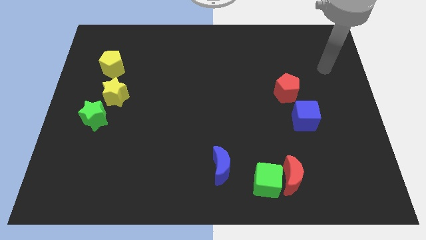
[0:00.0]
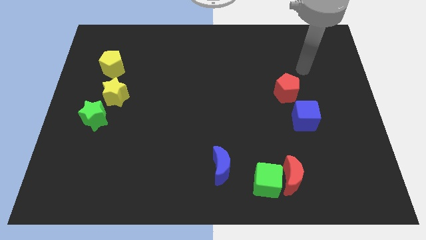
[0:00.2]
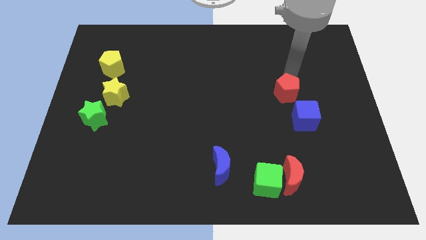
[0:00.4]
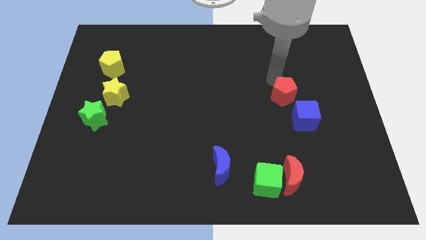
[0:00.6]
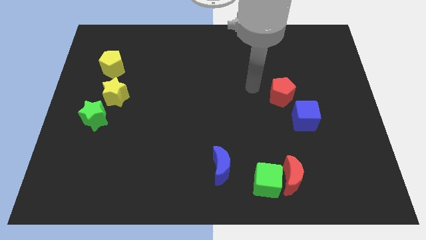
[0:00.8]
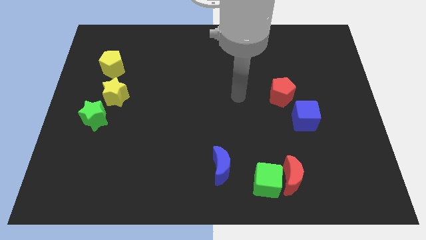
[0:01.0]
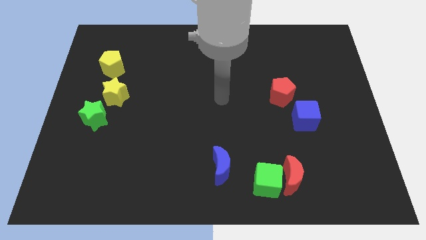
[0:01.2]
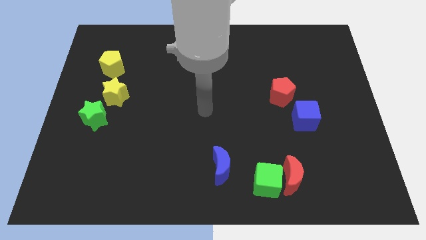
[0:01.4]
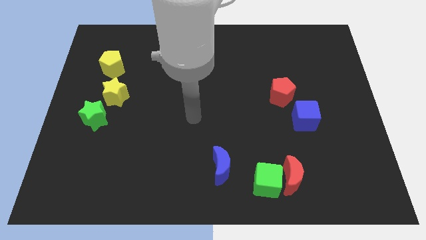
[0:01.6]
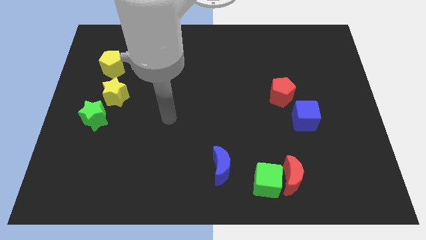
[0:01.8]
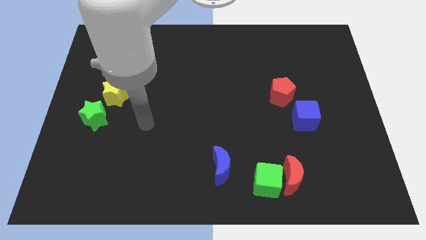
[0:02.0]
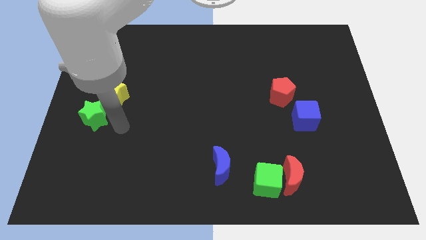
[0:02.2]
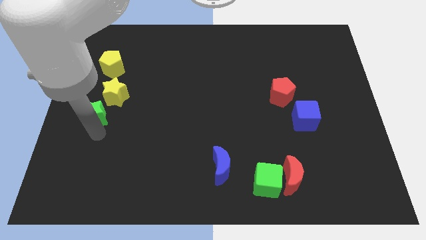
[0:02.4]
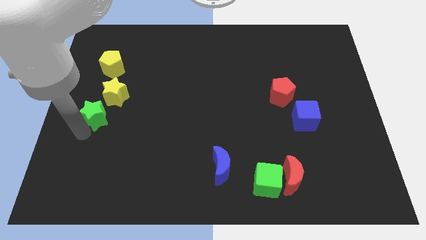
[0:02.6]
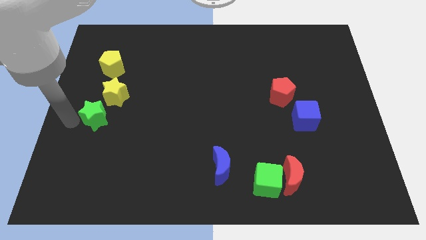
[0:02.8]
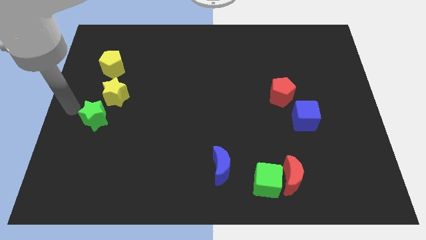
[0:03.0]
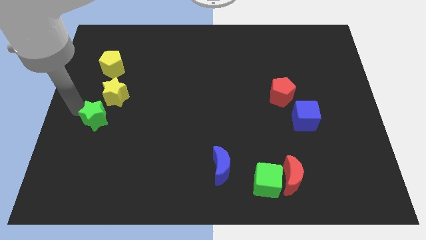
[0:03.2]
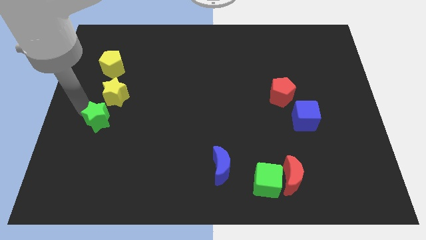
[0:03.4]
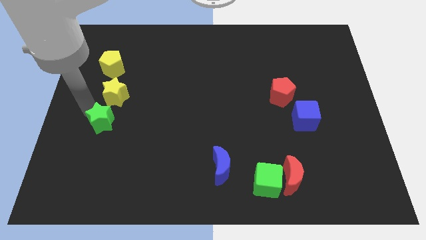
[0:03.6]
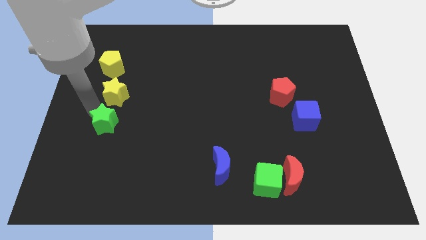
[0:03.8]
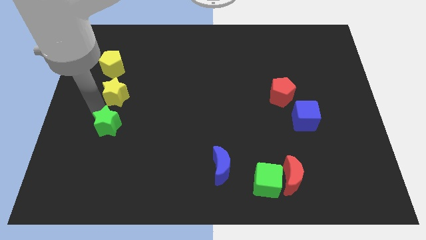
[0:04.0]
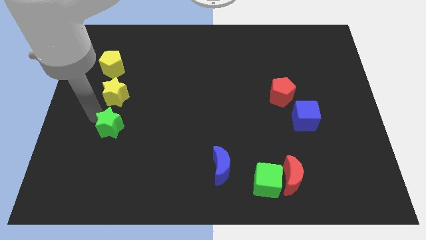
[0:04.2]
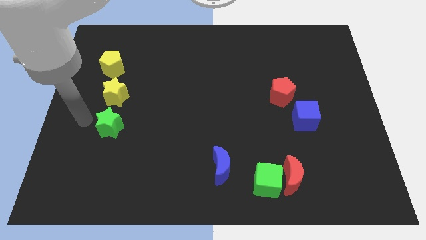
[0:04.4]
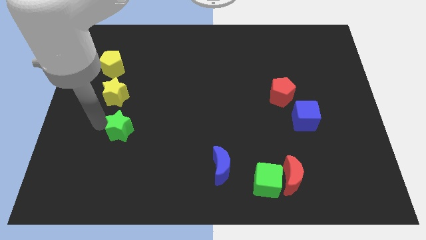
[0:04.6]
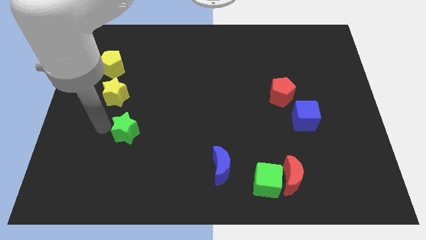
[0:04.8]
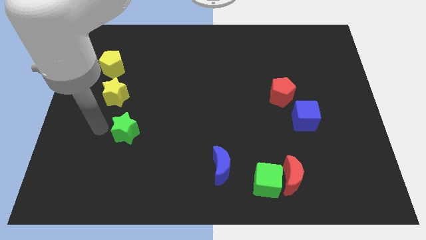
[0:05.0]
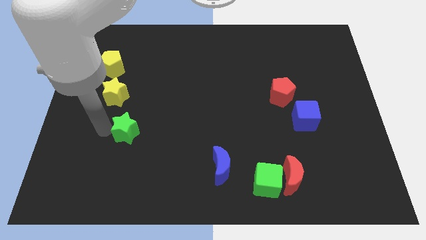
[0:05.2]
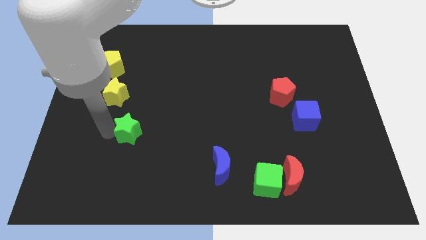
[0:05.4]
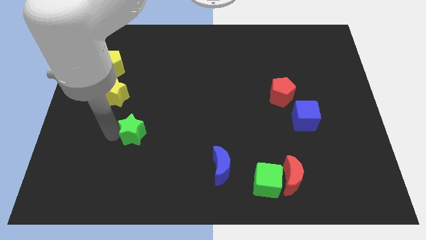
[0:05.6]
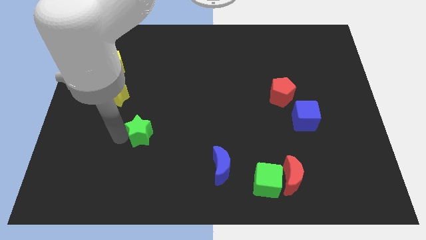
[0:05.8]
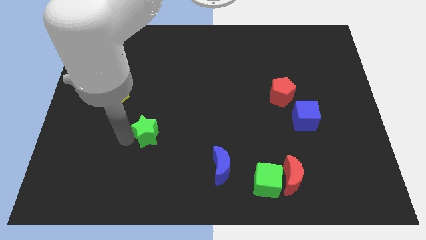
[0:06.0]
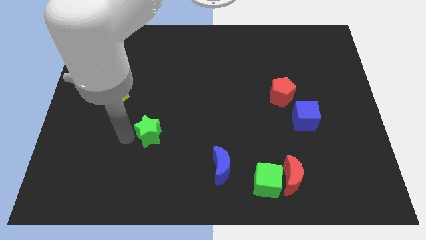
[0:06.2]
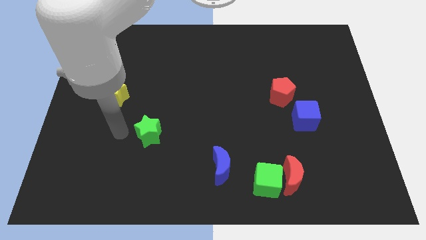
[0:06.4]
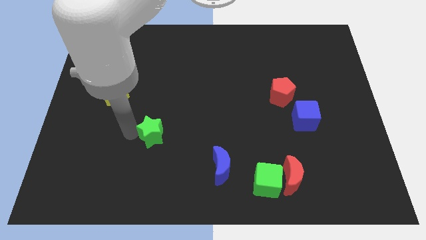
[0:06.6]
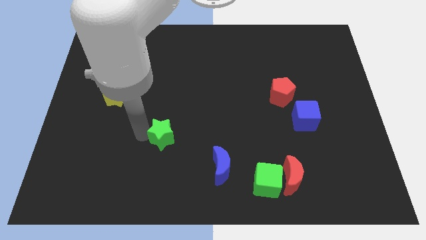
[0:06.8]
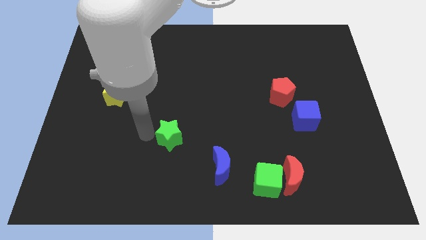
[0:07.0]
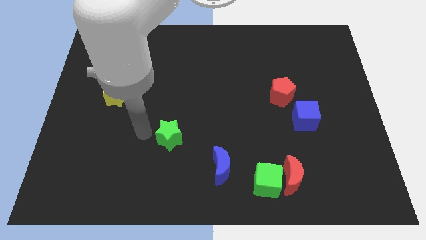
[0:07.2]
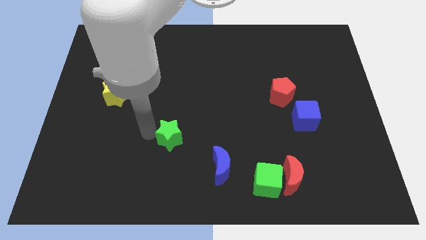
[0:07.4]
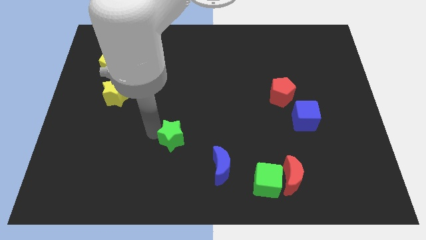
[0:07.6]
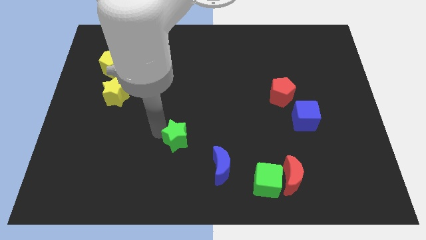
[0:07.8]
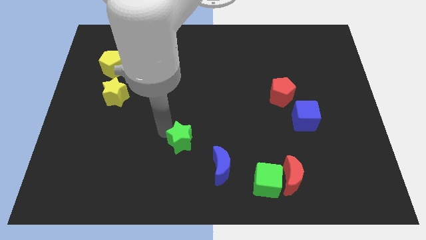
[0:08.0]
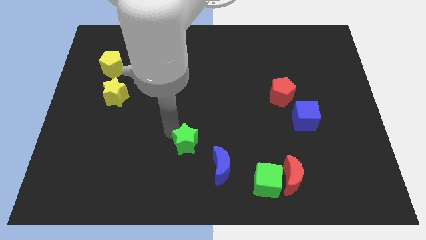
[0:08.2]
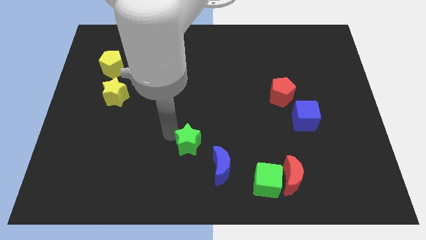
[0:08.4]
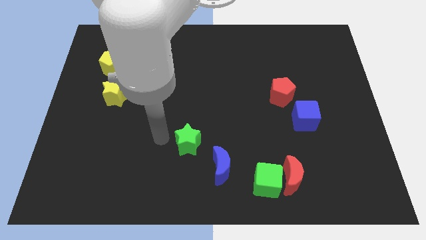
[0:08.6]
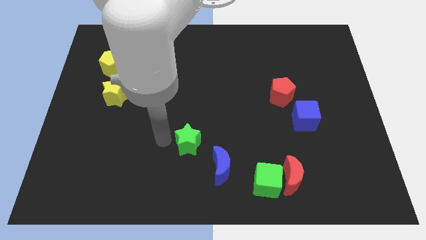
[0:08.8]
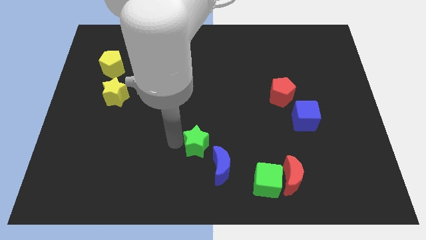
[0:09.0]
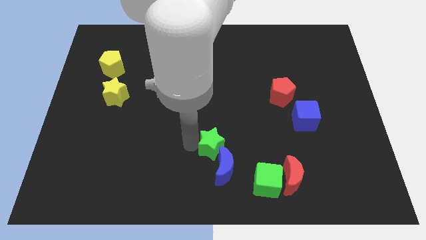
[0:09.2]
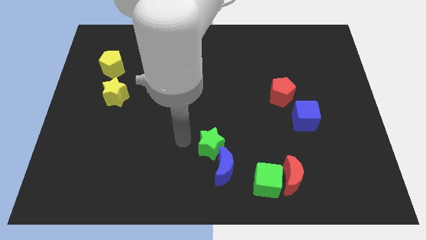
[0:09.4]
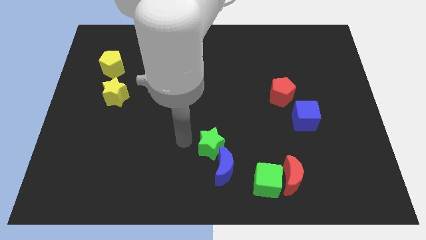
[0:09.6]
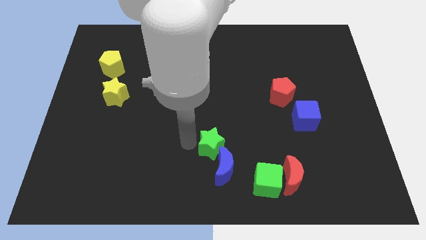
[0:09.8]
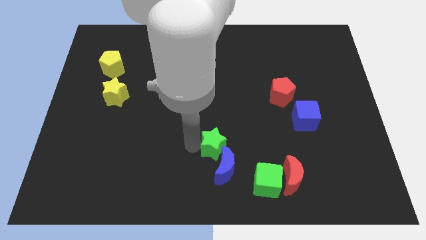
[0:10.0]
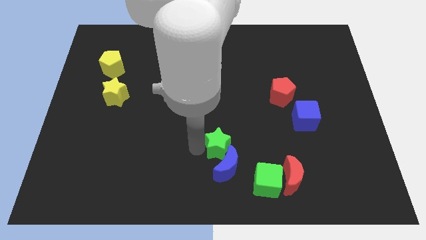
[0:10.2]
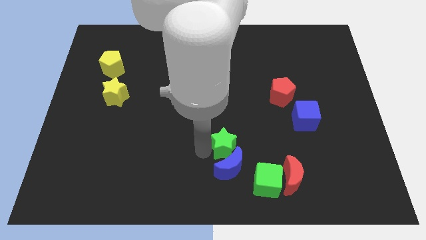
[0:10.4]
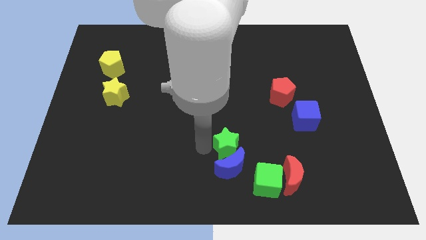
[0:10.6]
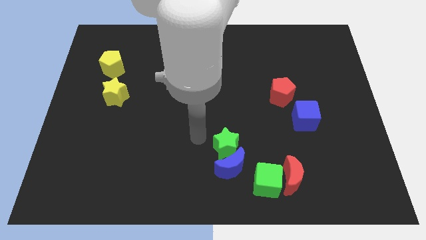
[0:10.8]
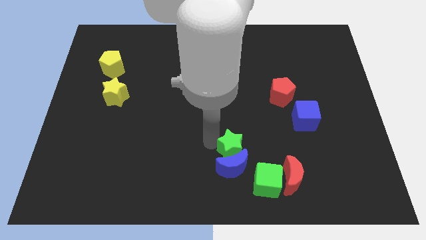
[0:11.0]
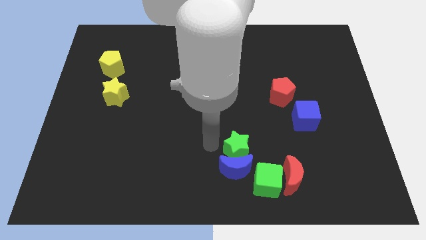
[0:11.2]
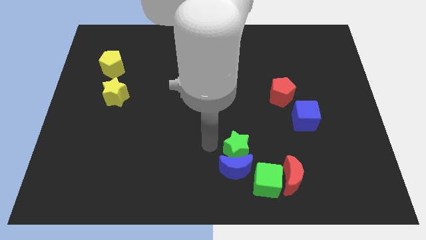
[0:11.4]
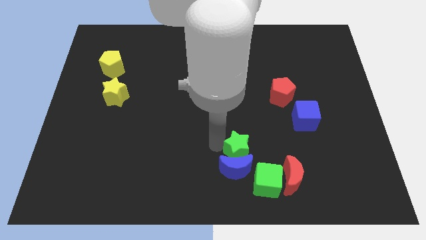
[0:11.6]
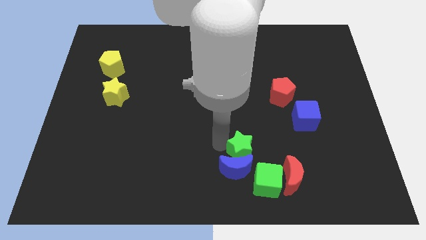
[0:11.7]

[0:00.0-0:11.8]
push the green star to the top left of the red moon

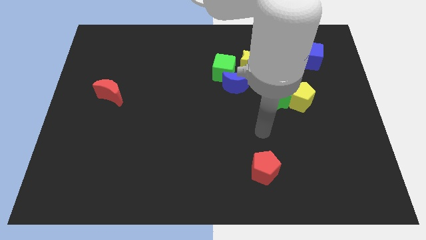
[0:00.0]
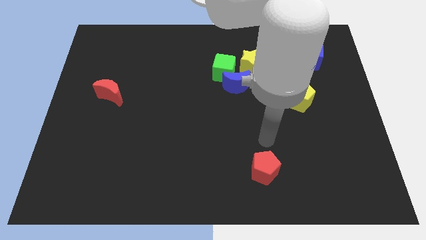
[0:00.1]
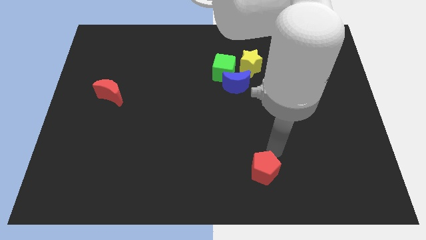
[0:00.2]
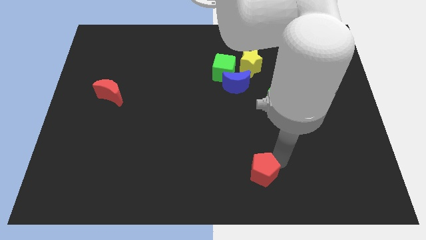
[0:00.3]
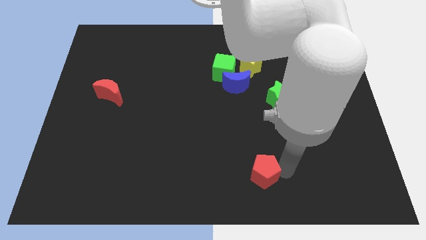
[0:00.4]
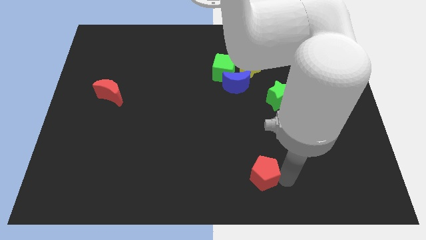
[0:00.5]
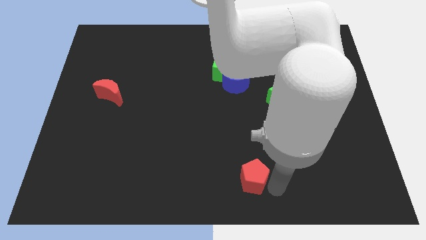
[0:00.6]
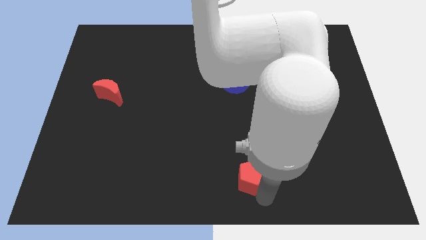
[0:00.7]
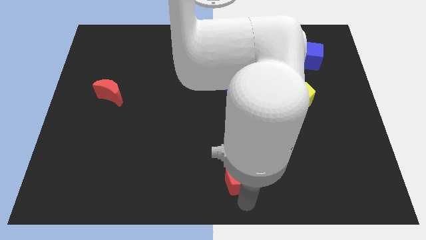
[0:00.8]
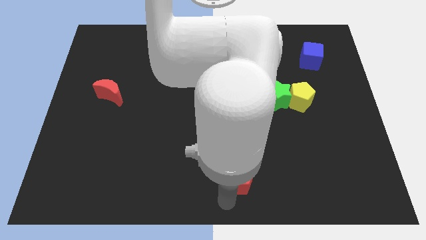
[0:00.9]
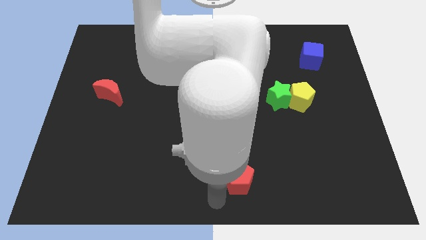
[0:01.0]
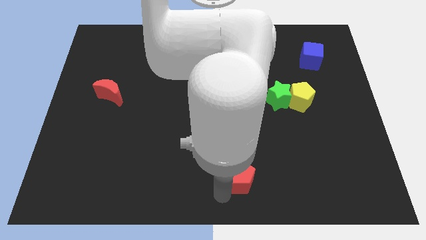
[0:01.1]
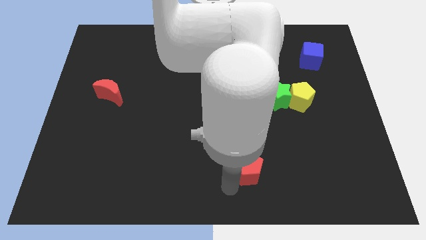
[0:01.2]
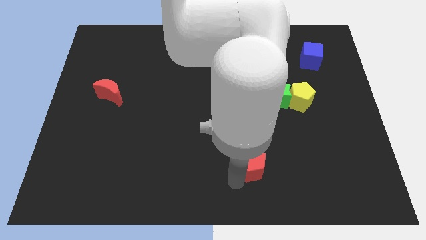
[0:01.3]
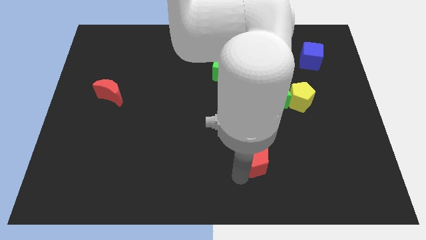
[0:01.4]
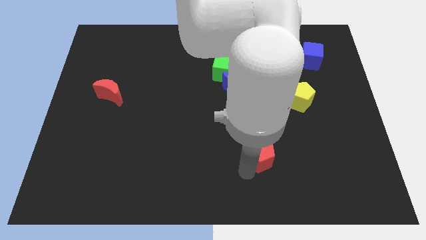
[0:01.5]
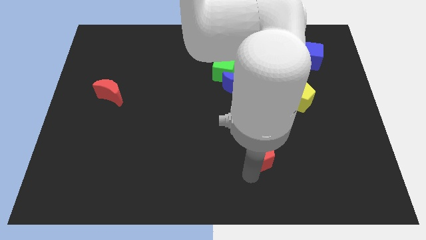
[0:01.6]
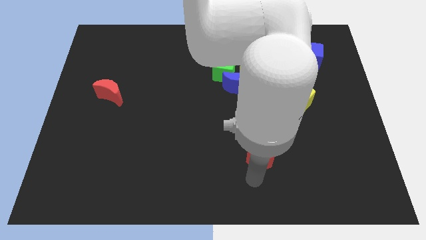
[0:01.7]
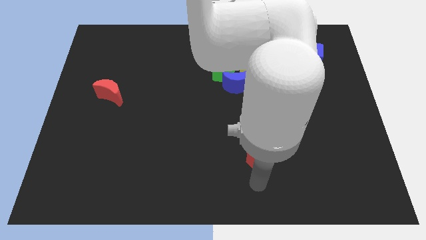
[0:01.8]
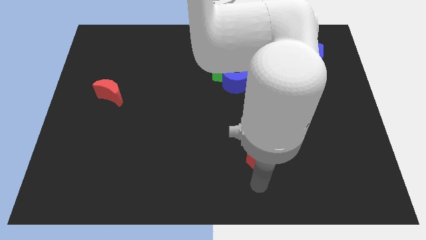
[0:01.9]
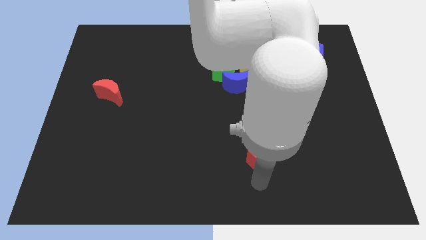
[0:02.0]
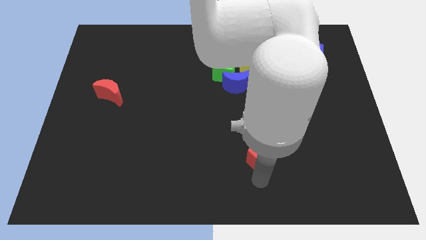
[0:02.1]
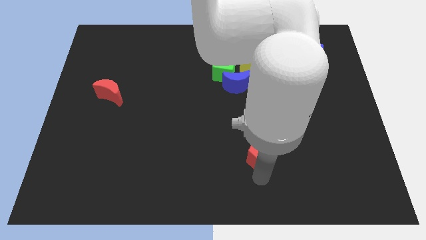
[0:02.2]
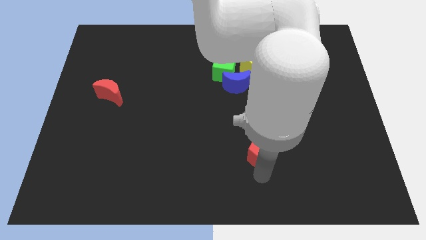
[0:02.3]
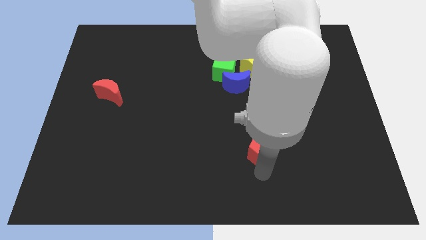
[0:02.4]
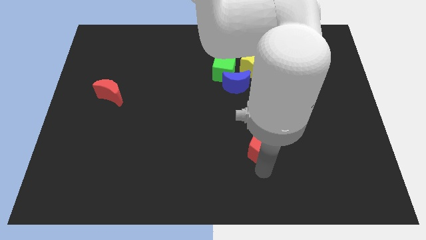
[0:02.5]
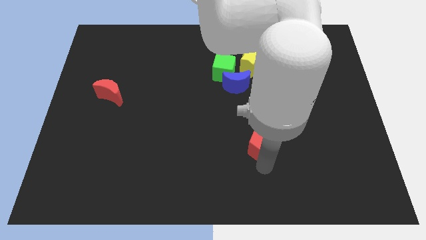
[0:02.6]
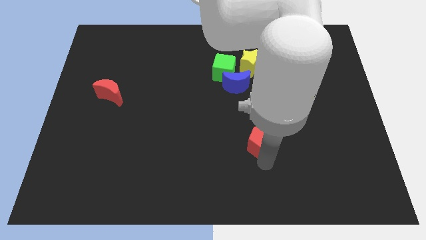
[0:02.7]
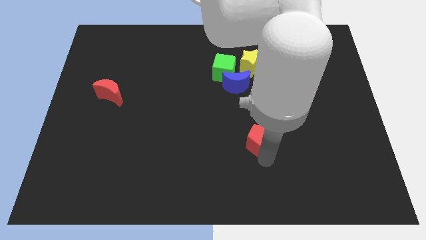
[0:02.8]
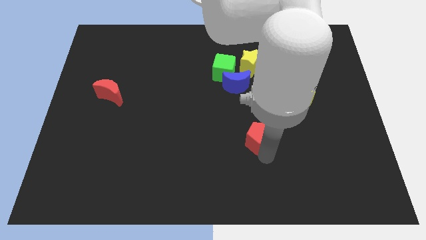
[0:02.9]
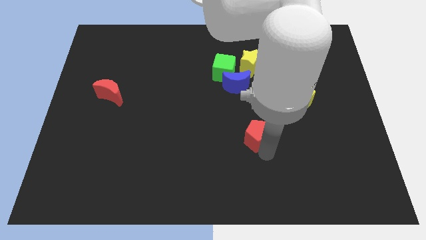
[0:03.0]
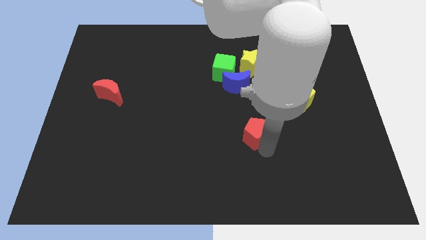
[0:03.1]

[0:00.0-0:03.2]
slide the red pentagon diagonally down and to the left of the green star
